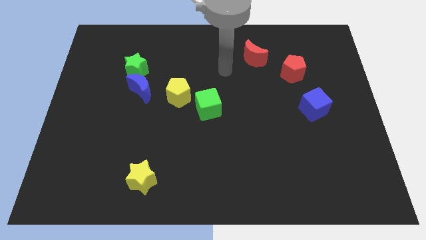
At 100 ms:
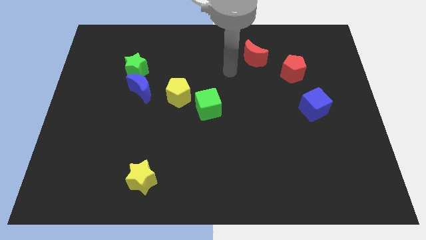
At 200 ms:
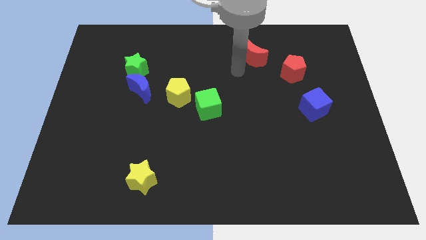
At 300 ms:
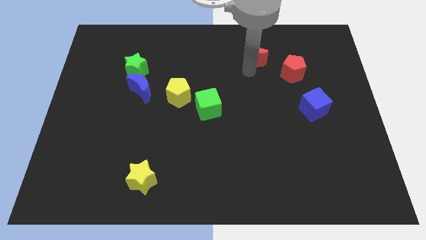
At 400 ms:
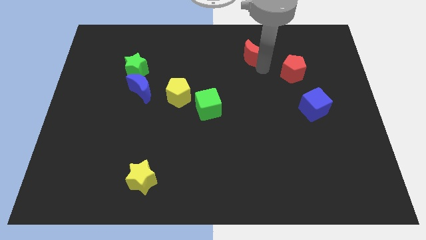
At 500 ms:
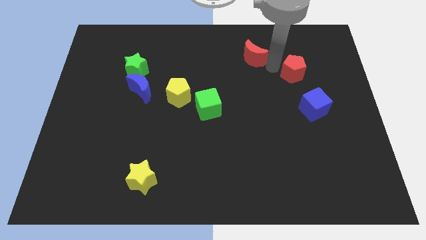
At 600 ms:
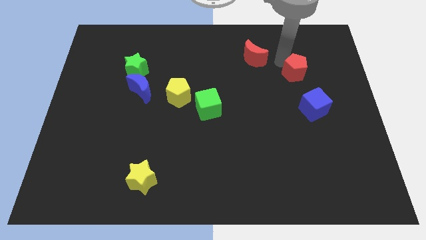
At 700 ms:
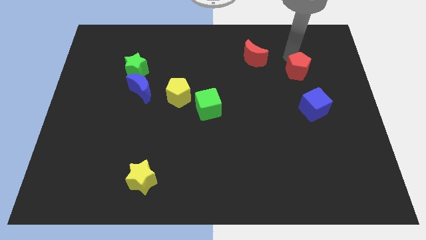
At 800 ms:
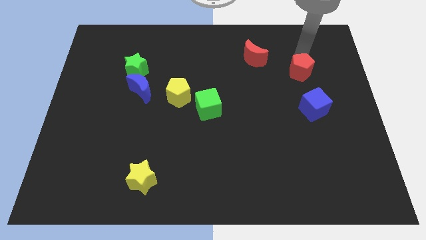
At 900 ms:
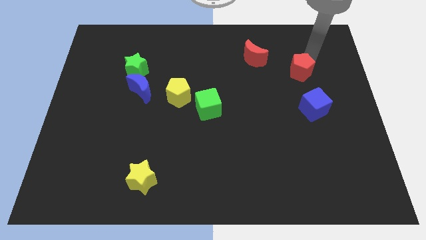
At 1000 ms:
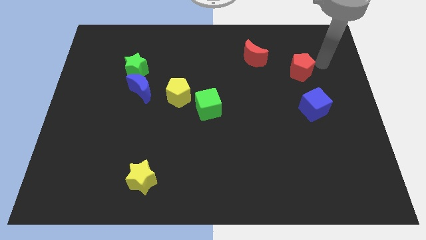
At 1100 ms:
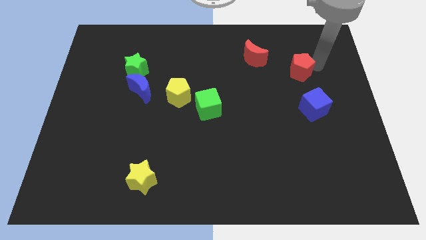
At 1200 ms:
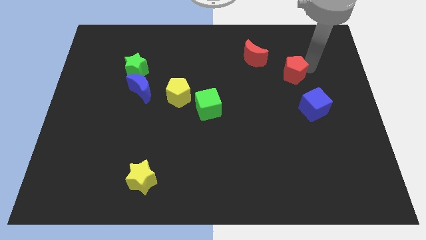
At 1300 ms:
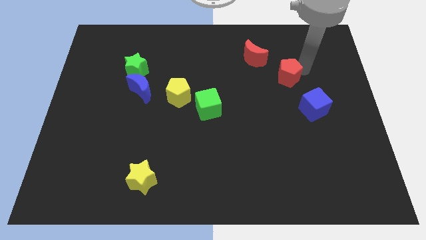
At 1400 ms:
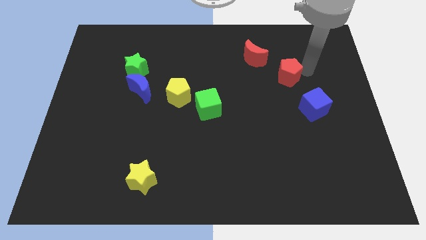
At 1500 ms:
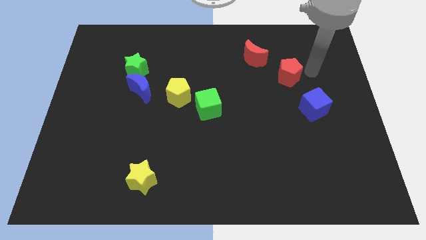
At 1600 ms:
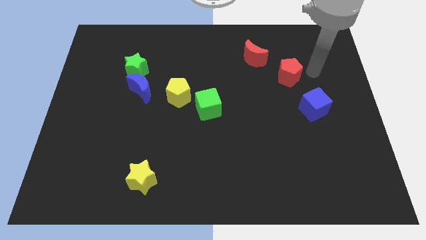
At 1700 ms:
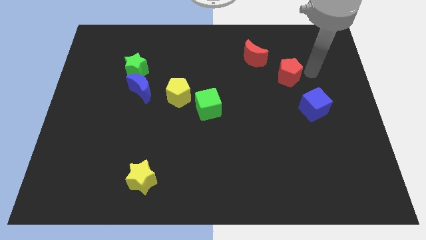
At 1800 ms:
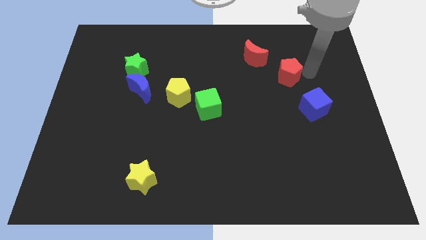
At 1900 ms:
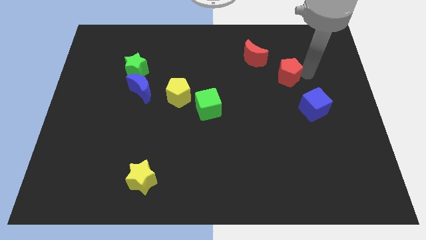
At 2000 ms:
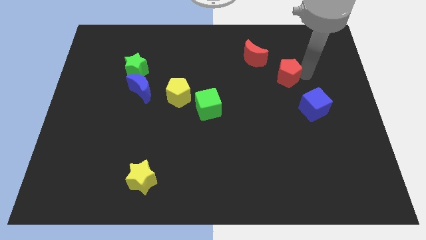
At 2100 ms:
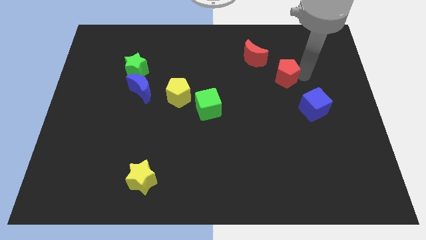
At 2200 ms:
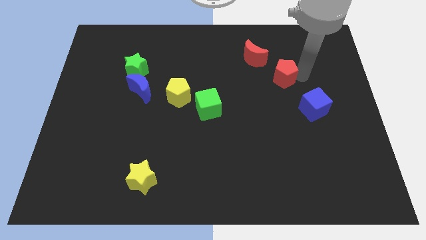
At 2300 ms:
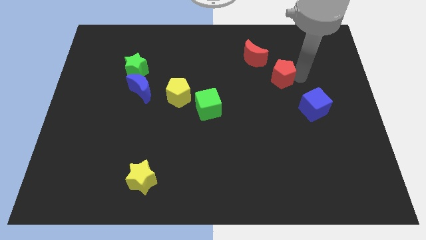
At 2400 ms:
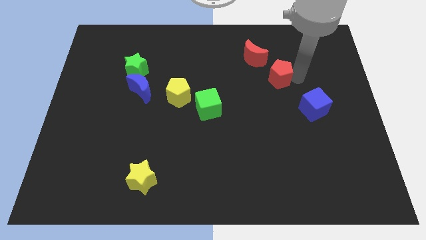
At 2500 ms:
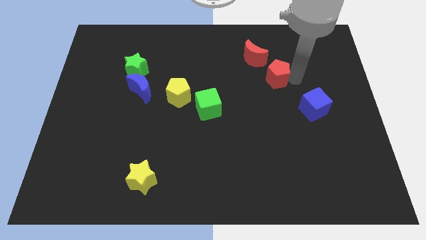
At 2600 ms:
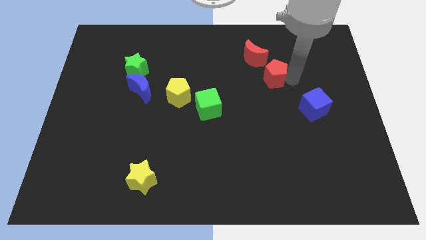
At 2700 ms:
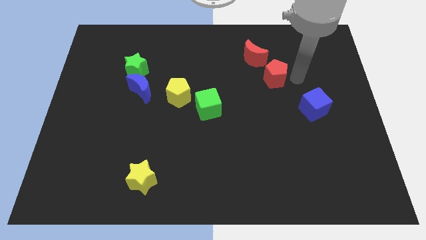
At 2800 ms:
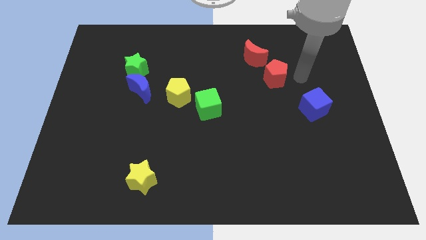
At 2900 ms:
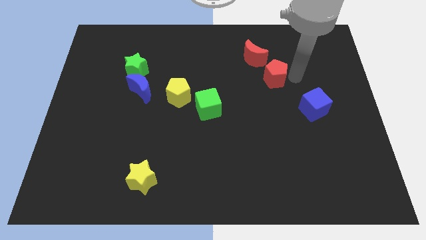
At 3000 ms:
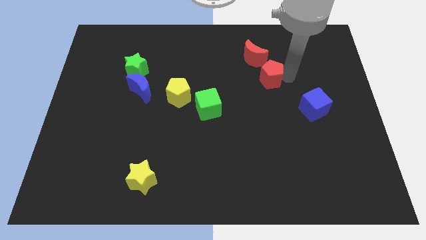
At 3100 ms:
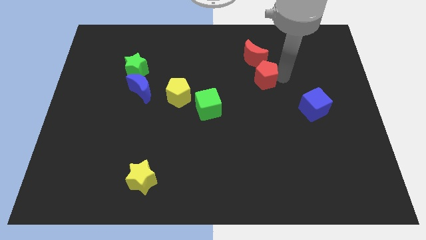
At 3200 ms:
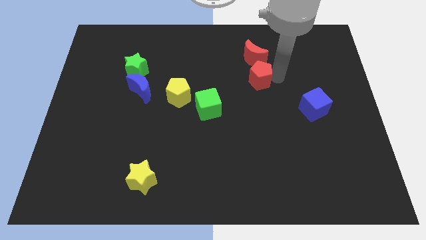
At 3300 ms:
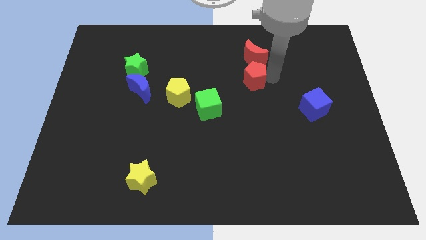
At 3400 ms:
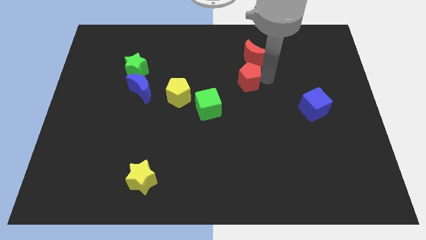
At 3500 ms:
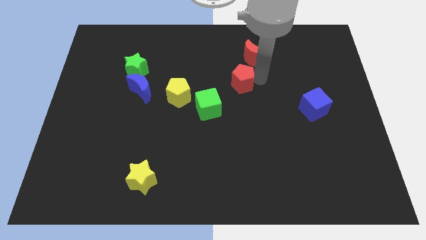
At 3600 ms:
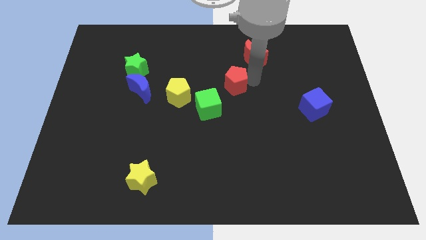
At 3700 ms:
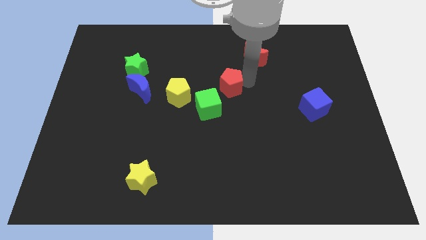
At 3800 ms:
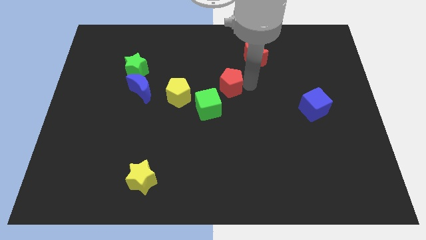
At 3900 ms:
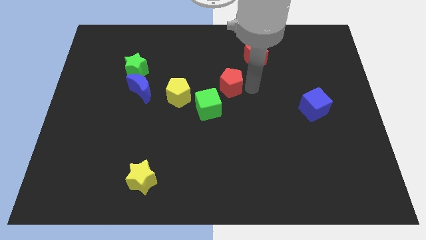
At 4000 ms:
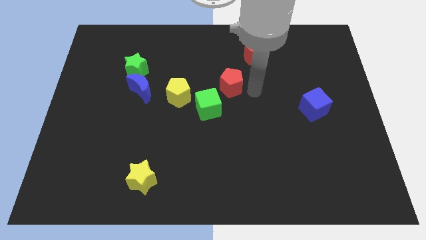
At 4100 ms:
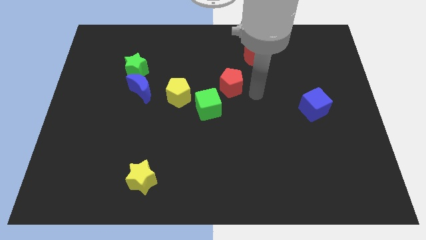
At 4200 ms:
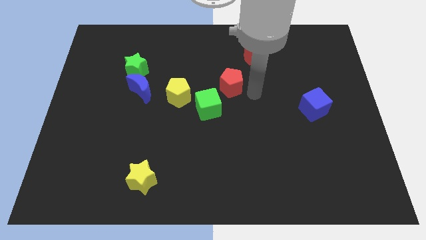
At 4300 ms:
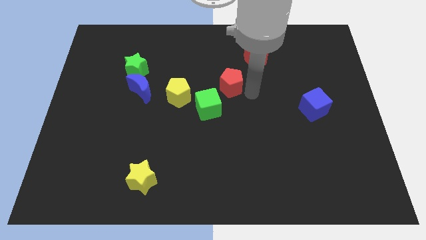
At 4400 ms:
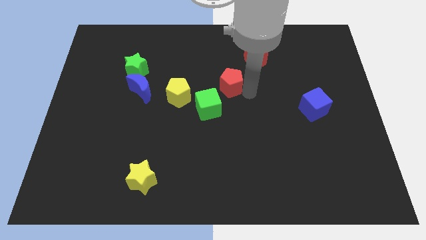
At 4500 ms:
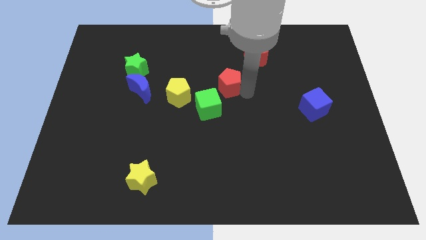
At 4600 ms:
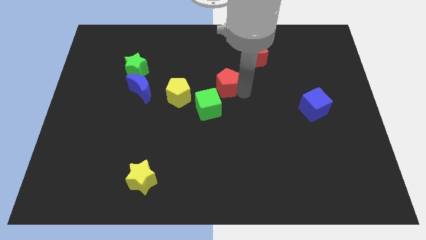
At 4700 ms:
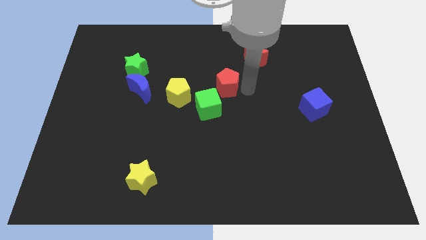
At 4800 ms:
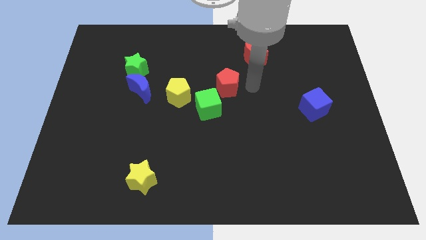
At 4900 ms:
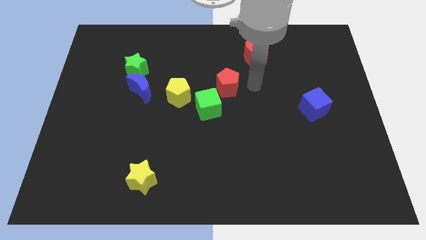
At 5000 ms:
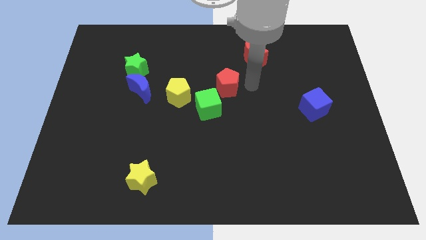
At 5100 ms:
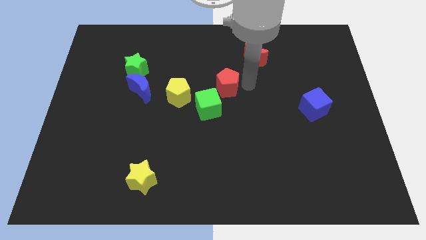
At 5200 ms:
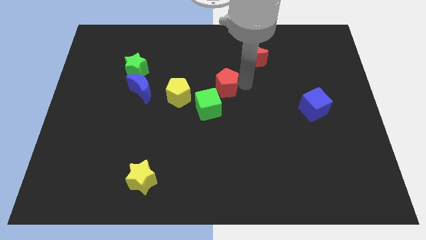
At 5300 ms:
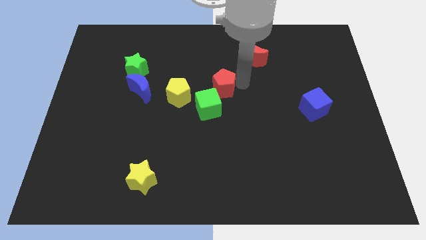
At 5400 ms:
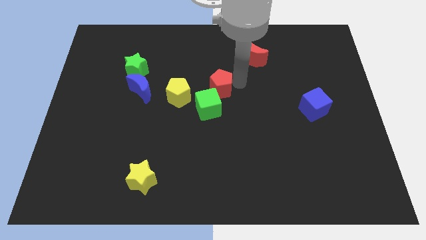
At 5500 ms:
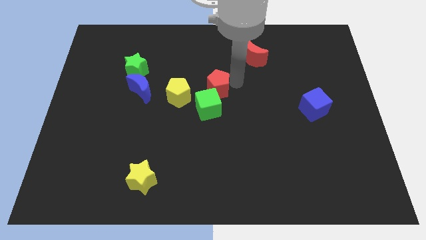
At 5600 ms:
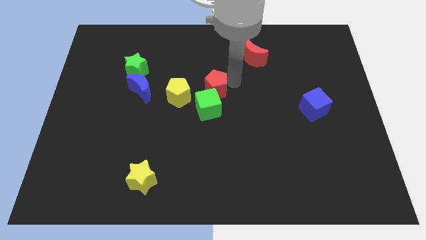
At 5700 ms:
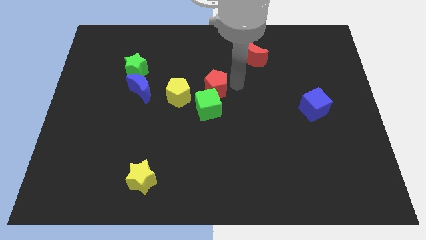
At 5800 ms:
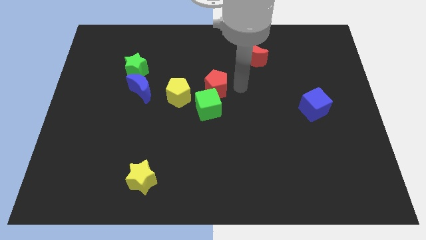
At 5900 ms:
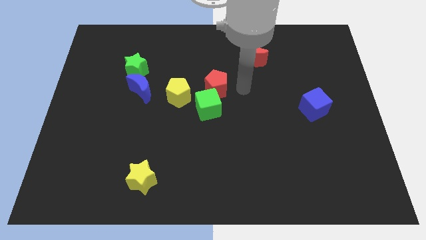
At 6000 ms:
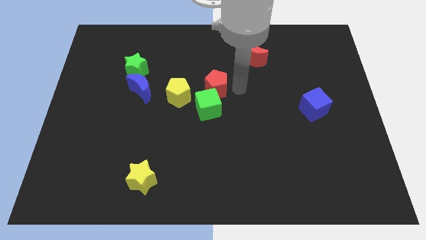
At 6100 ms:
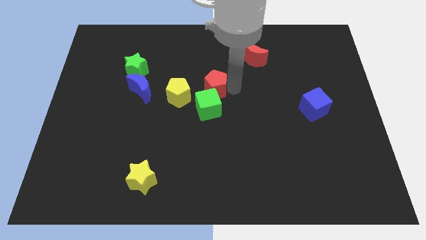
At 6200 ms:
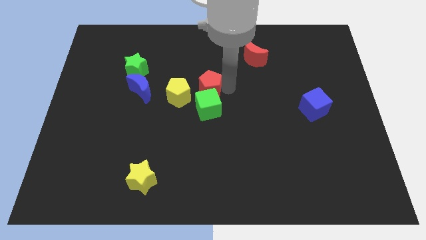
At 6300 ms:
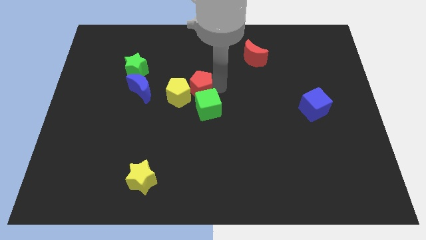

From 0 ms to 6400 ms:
move the red pentagon towards the yellow pentagon

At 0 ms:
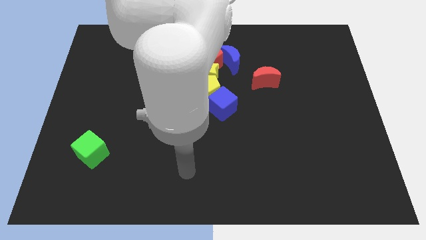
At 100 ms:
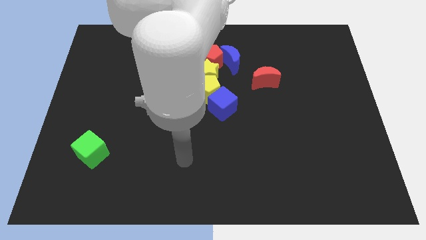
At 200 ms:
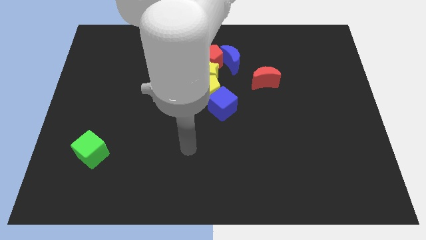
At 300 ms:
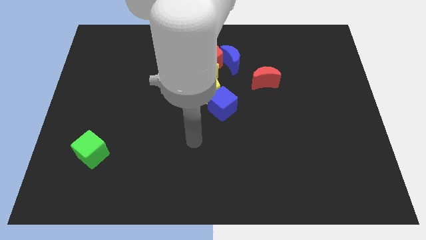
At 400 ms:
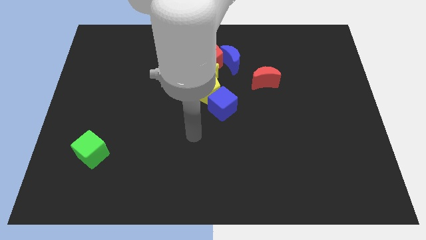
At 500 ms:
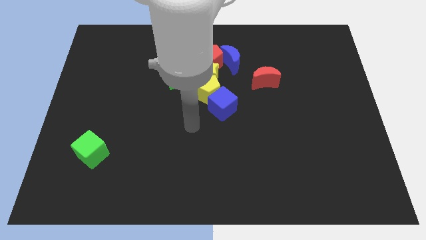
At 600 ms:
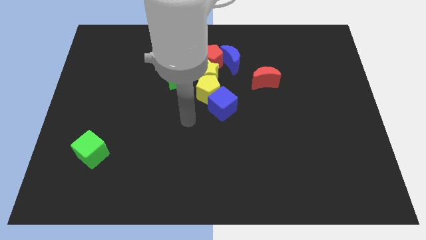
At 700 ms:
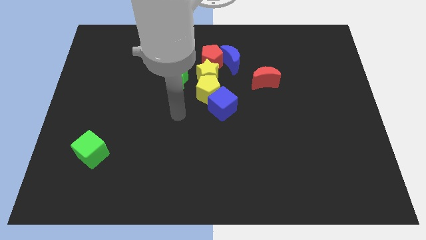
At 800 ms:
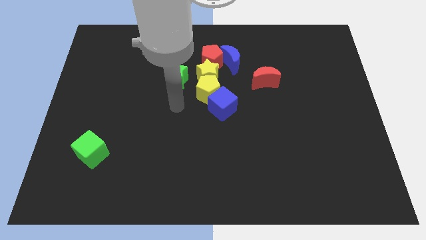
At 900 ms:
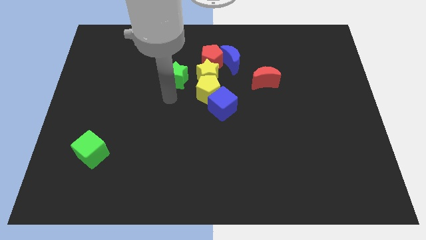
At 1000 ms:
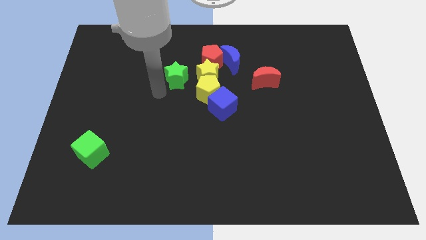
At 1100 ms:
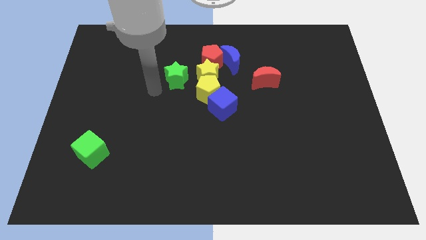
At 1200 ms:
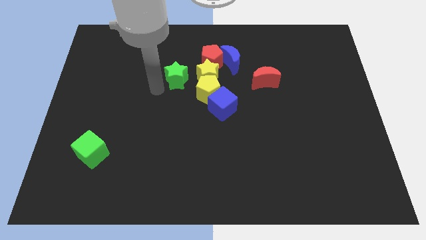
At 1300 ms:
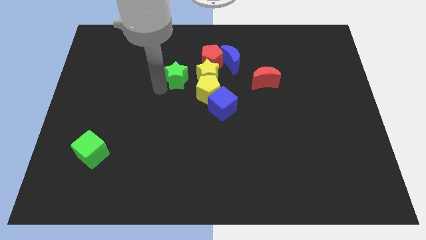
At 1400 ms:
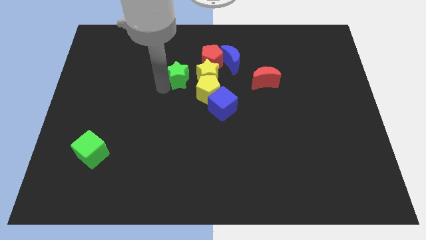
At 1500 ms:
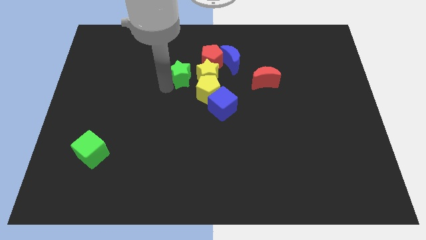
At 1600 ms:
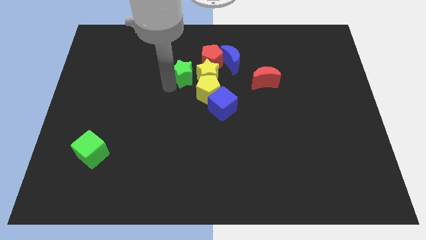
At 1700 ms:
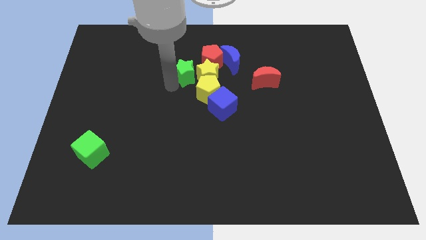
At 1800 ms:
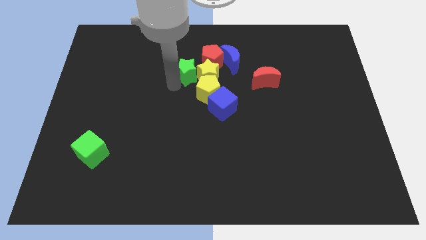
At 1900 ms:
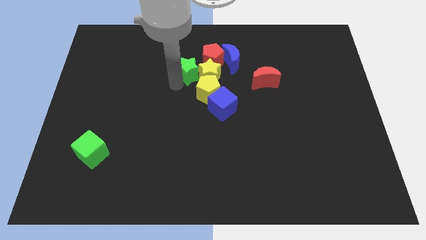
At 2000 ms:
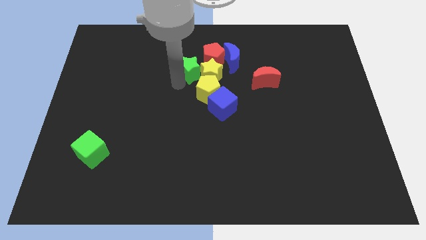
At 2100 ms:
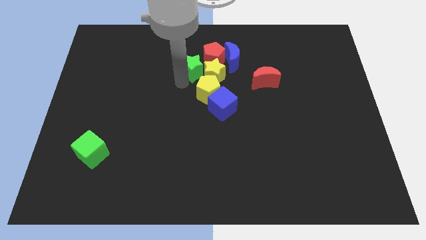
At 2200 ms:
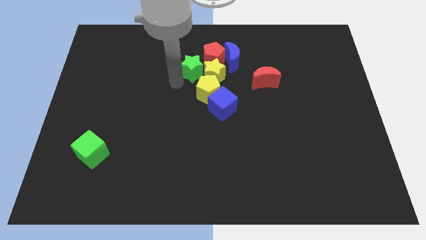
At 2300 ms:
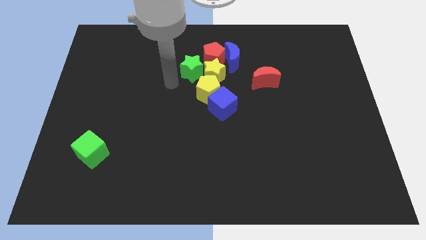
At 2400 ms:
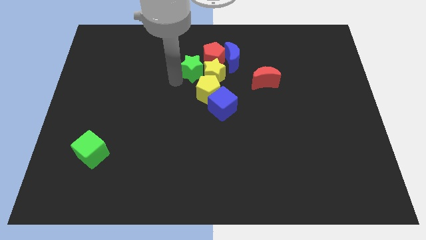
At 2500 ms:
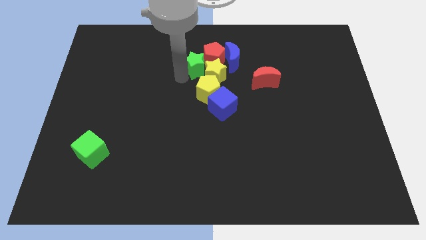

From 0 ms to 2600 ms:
put the green star towards the red pentagon
